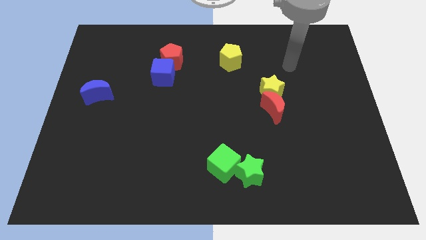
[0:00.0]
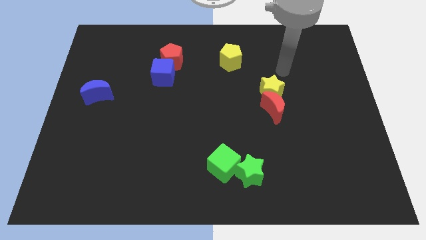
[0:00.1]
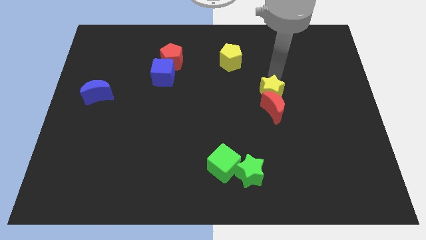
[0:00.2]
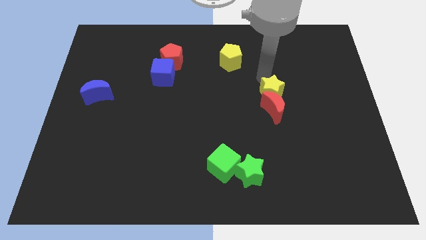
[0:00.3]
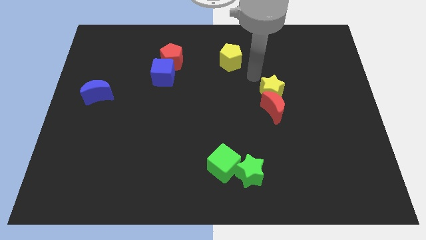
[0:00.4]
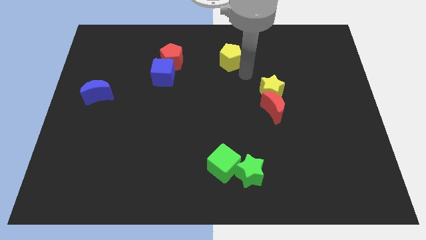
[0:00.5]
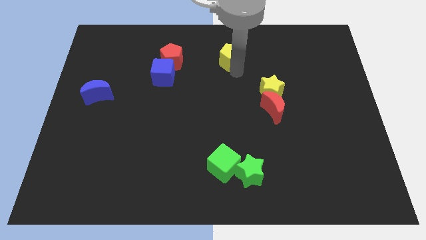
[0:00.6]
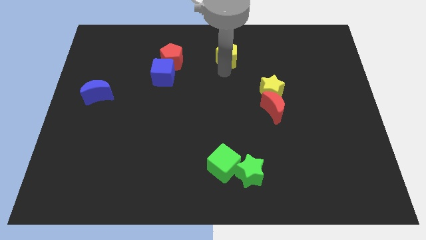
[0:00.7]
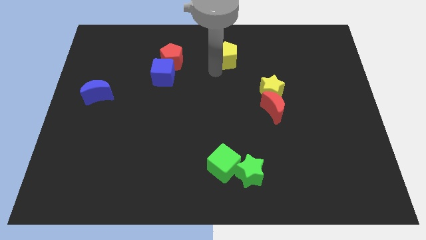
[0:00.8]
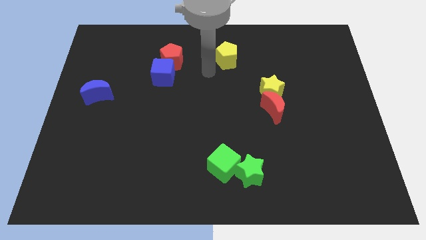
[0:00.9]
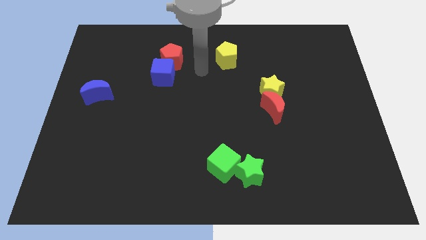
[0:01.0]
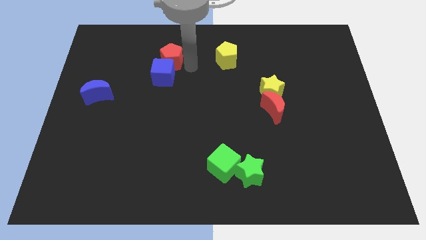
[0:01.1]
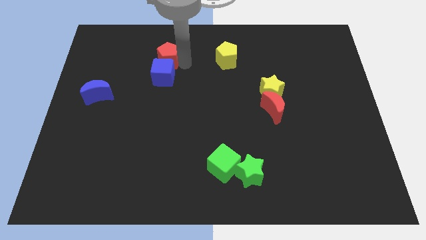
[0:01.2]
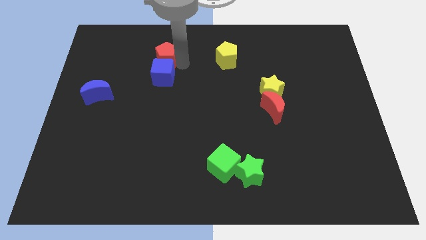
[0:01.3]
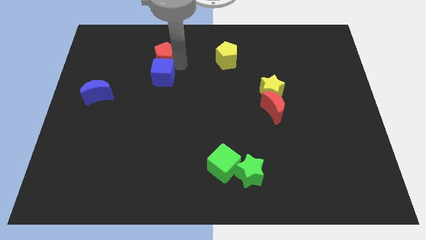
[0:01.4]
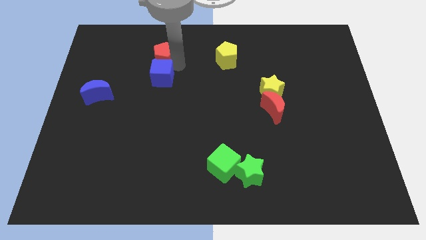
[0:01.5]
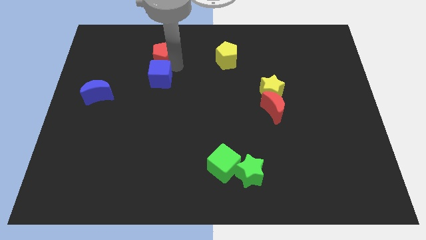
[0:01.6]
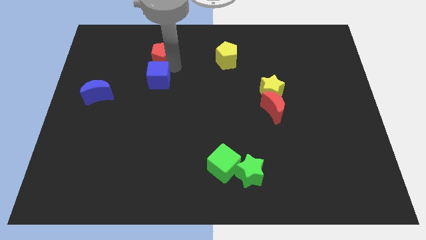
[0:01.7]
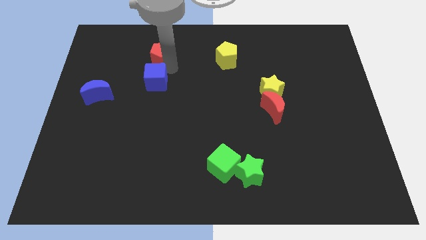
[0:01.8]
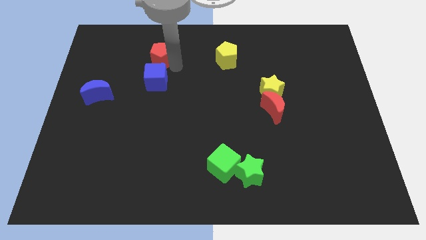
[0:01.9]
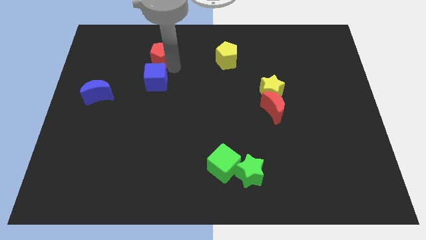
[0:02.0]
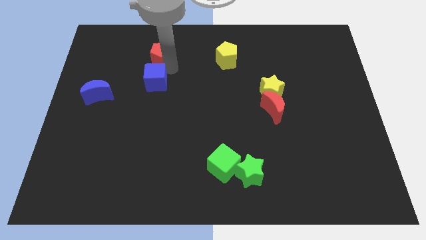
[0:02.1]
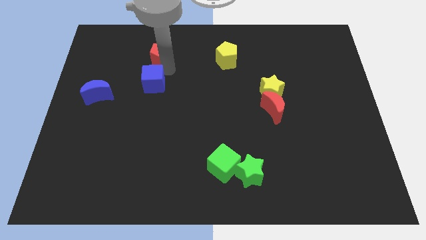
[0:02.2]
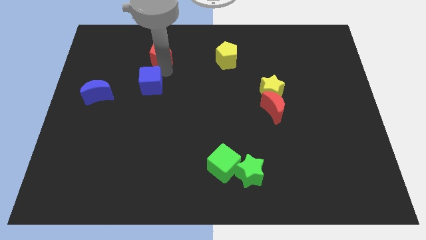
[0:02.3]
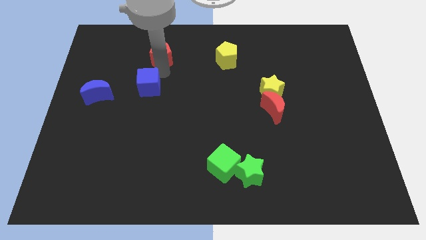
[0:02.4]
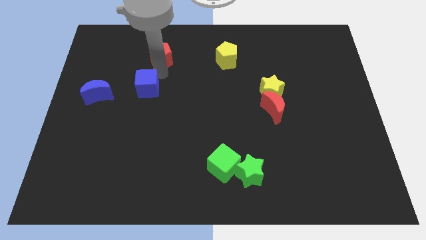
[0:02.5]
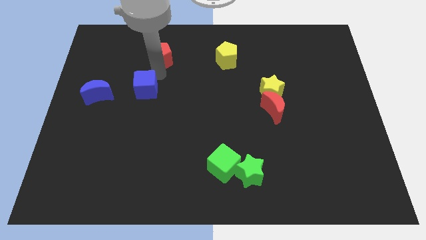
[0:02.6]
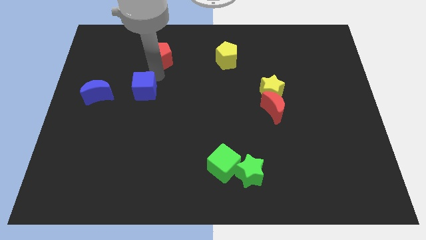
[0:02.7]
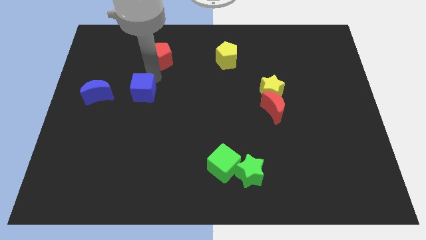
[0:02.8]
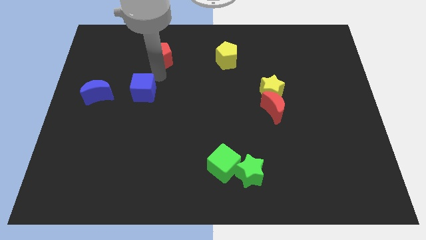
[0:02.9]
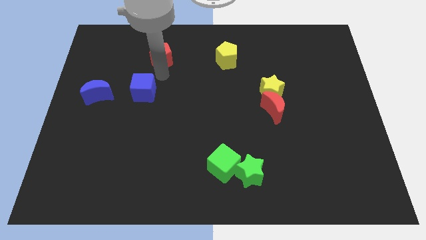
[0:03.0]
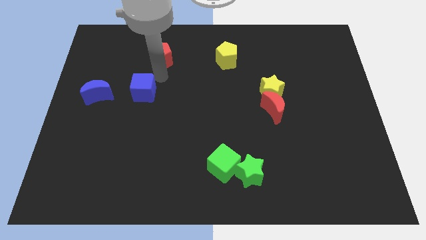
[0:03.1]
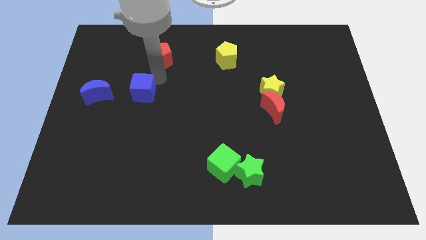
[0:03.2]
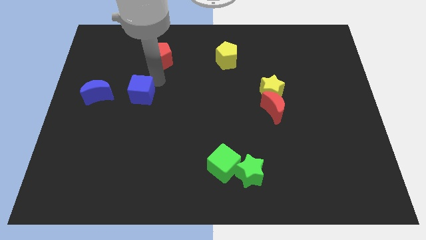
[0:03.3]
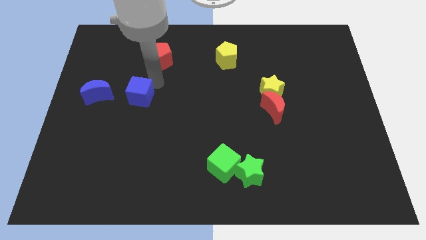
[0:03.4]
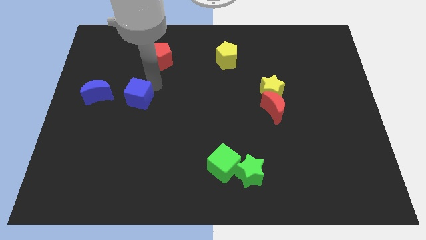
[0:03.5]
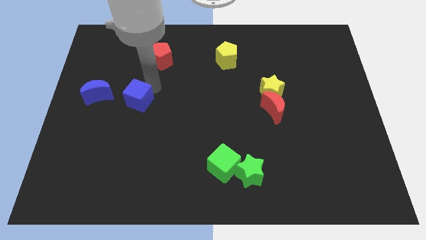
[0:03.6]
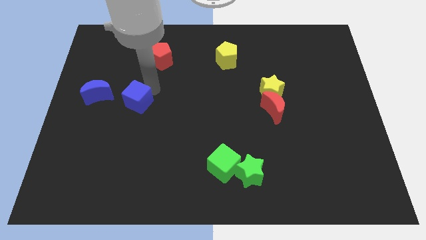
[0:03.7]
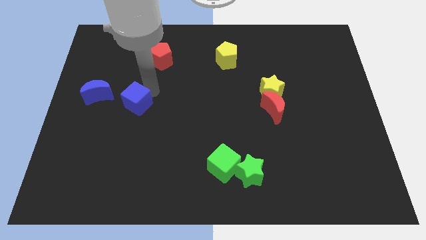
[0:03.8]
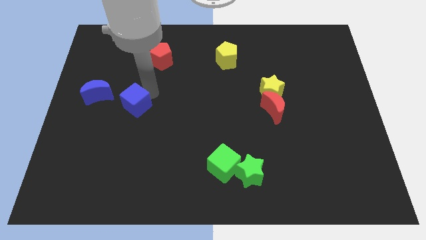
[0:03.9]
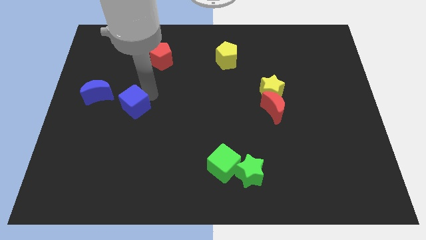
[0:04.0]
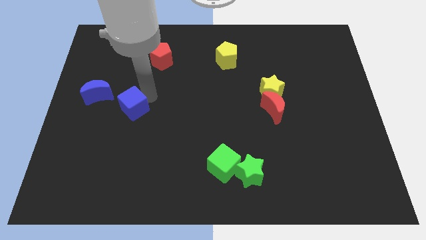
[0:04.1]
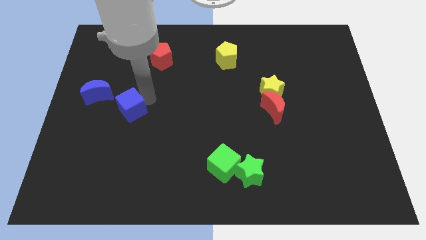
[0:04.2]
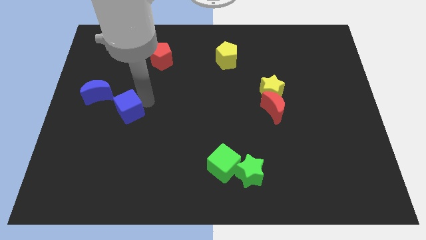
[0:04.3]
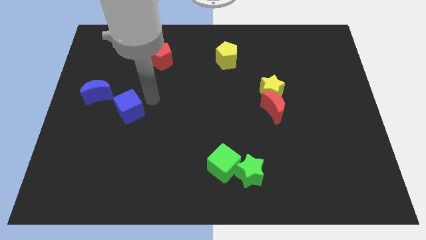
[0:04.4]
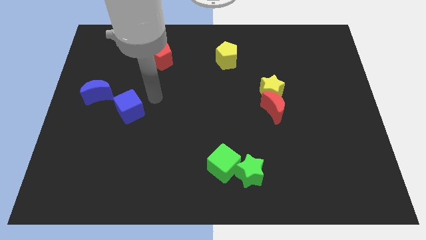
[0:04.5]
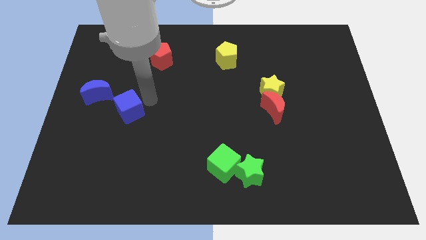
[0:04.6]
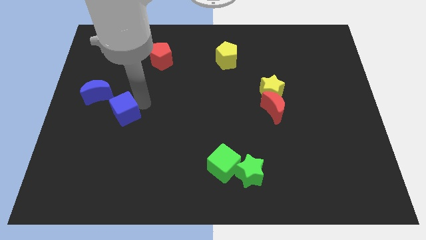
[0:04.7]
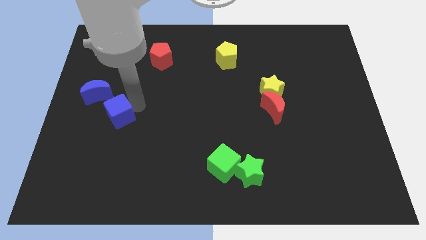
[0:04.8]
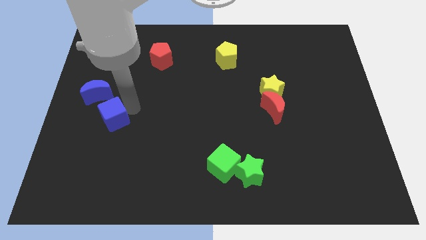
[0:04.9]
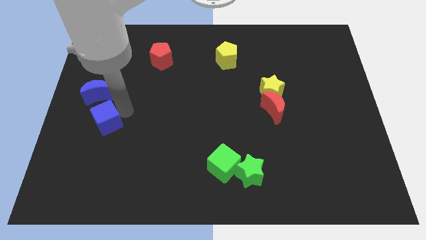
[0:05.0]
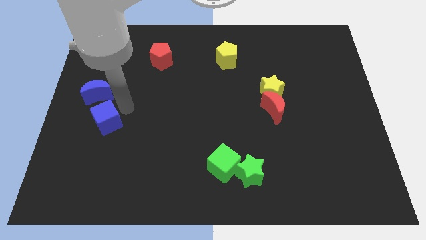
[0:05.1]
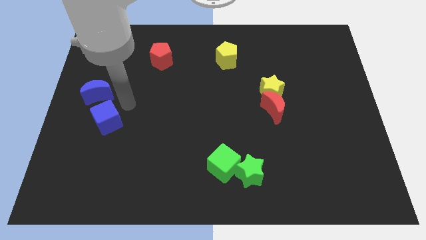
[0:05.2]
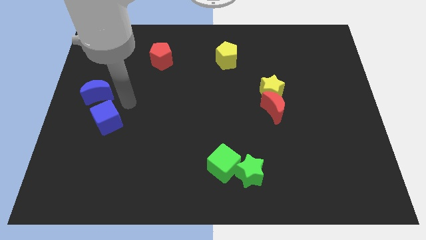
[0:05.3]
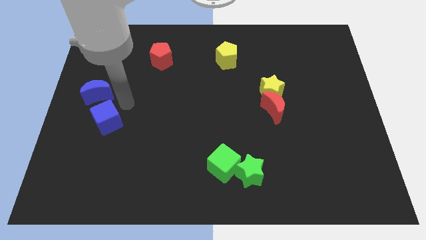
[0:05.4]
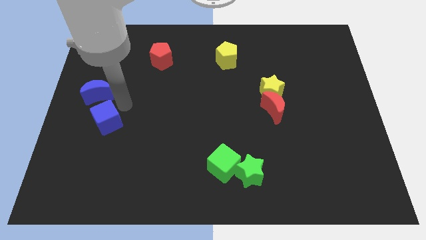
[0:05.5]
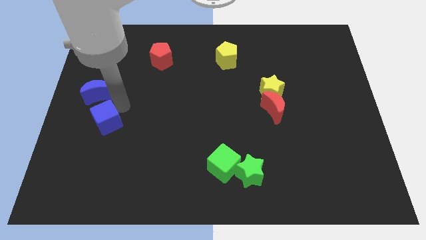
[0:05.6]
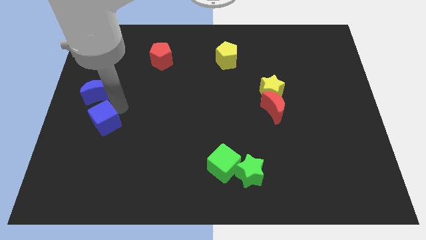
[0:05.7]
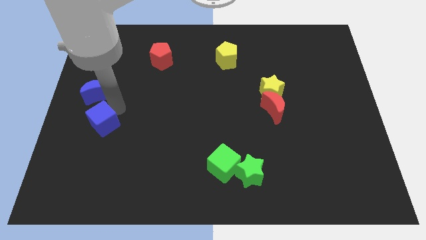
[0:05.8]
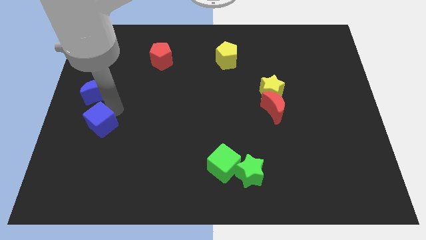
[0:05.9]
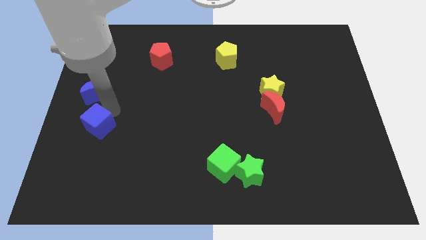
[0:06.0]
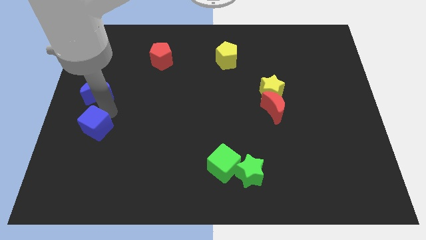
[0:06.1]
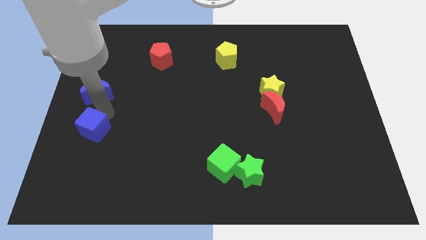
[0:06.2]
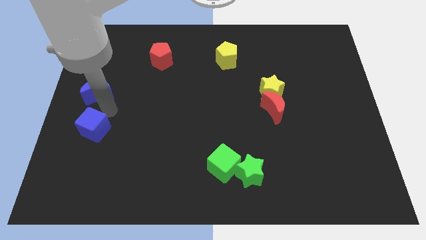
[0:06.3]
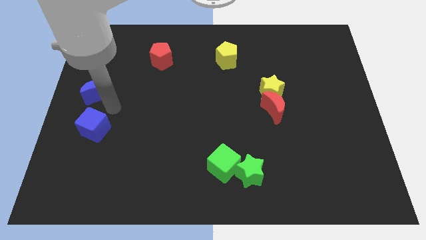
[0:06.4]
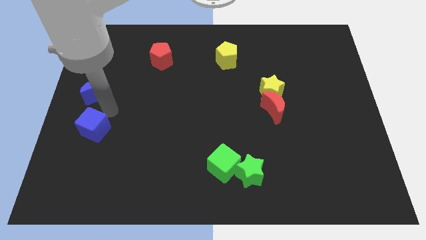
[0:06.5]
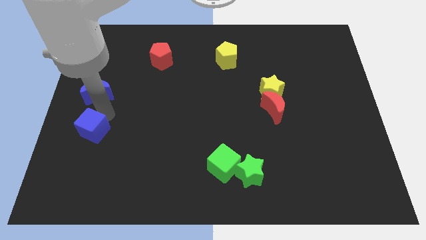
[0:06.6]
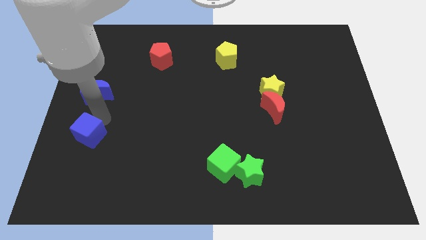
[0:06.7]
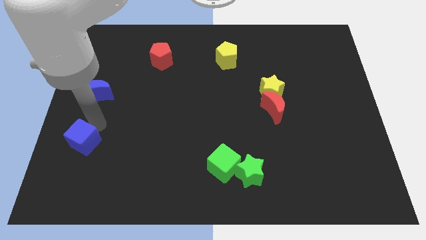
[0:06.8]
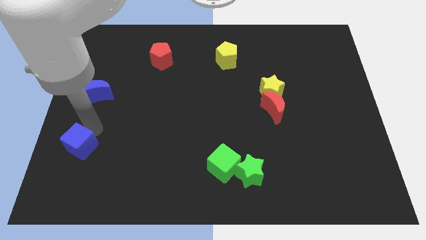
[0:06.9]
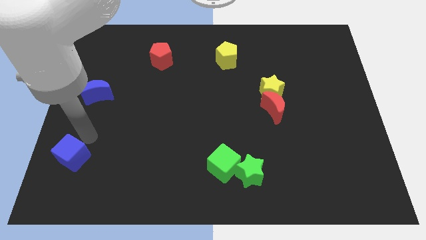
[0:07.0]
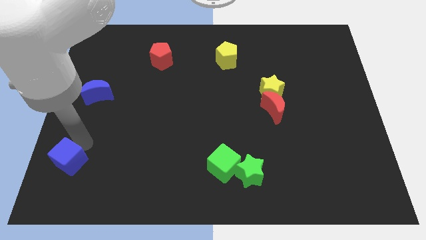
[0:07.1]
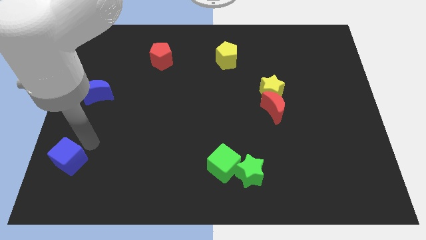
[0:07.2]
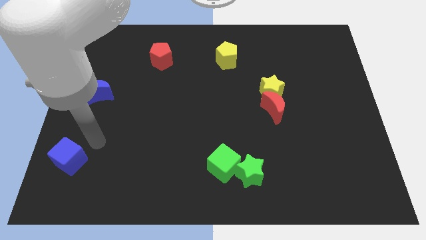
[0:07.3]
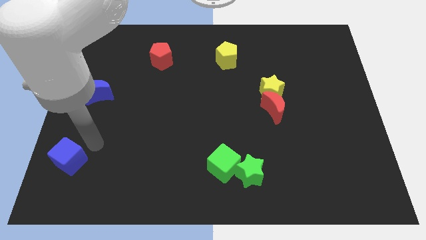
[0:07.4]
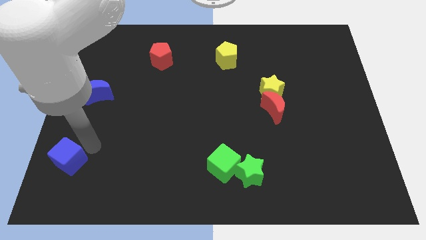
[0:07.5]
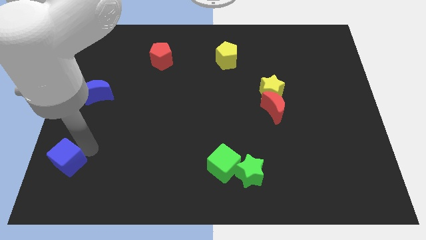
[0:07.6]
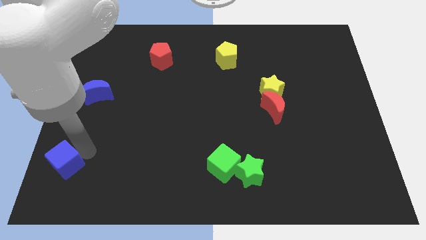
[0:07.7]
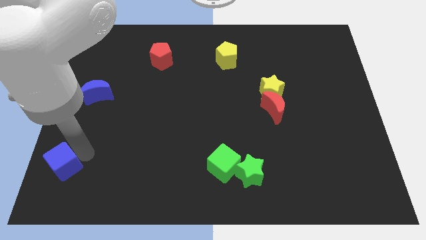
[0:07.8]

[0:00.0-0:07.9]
push the blue cube to the lower left corner
